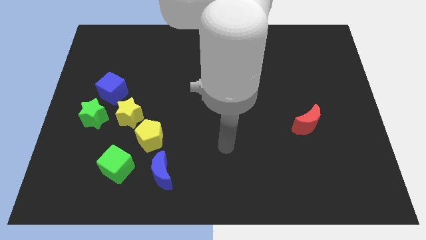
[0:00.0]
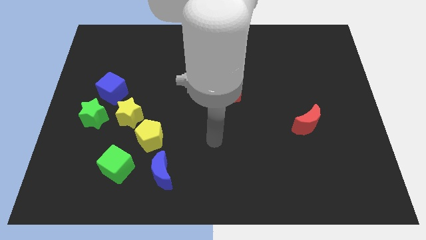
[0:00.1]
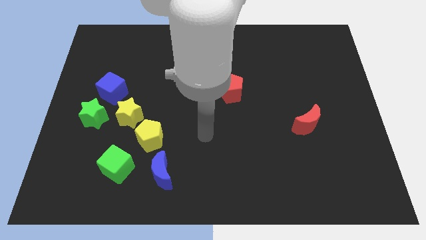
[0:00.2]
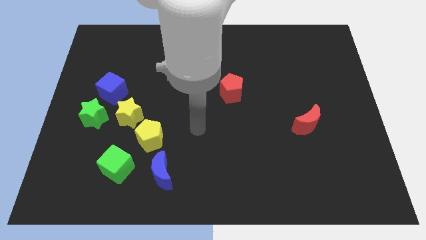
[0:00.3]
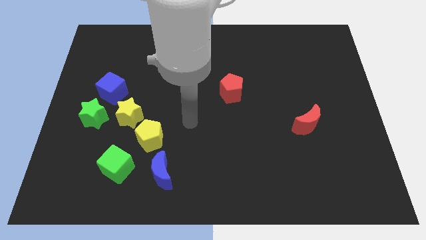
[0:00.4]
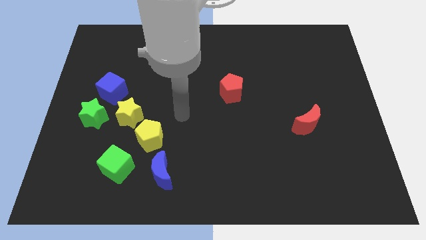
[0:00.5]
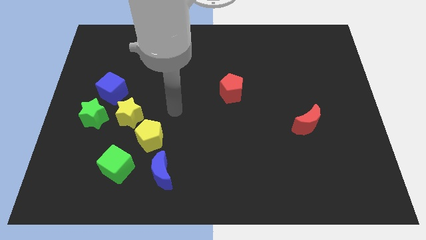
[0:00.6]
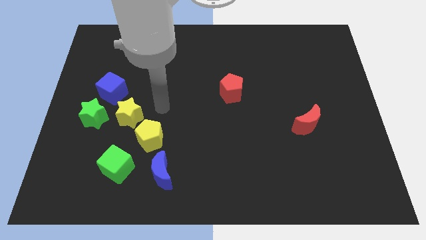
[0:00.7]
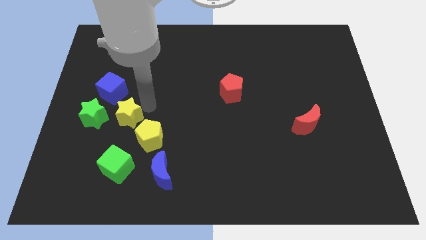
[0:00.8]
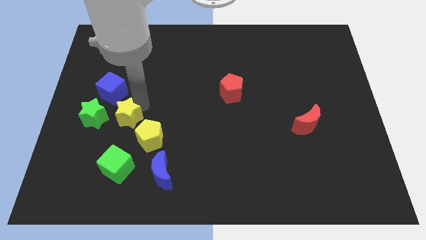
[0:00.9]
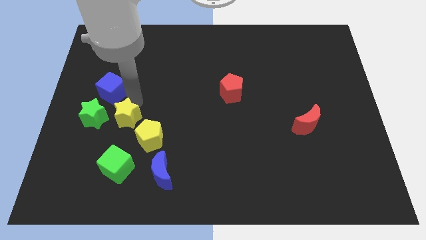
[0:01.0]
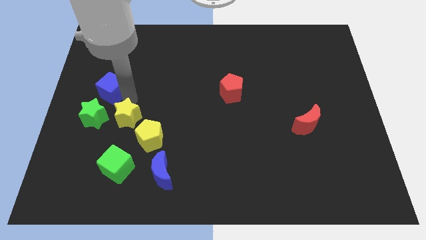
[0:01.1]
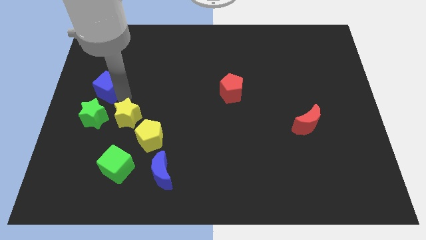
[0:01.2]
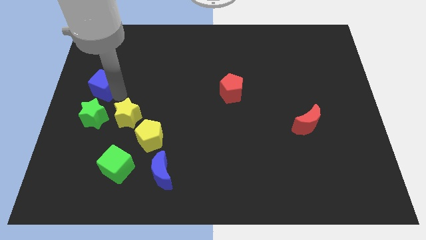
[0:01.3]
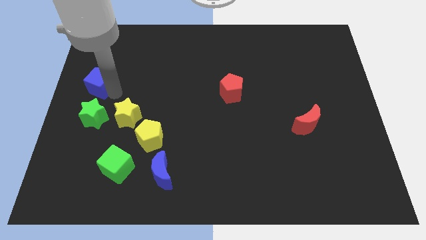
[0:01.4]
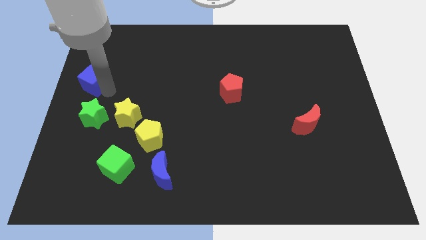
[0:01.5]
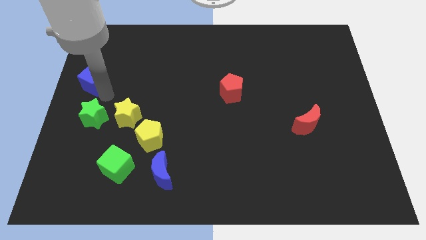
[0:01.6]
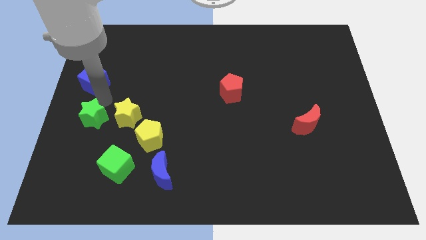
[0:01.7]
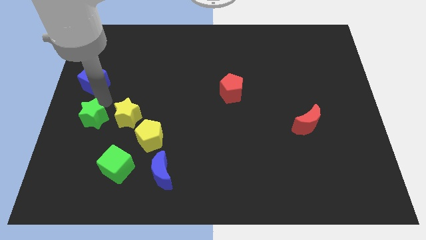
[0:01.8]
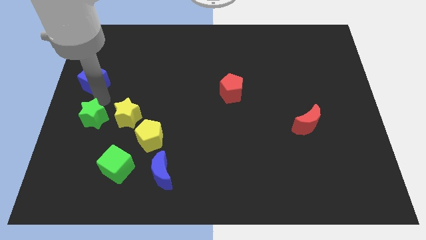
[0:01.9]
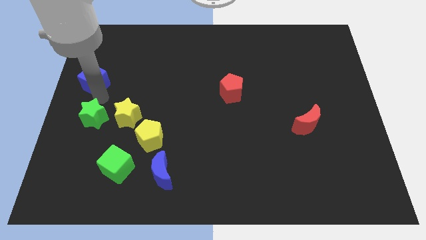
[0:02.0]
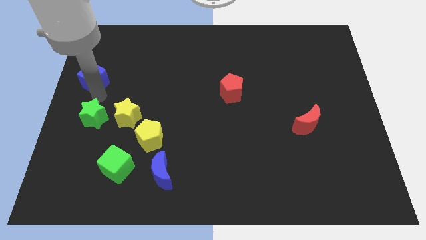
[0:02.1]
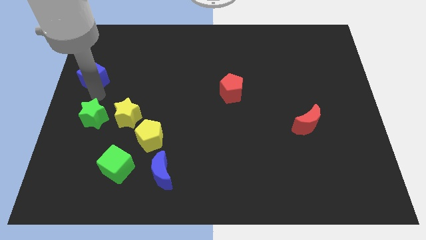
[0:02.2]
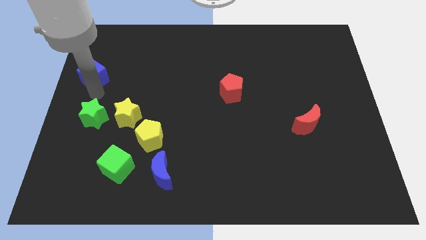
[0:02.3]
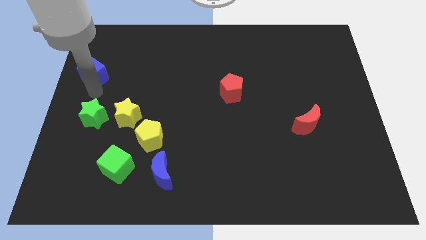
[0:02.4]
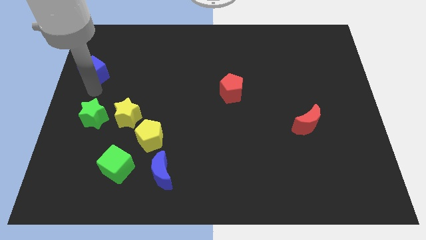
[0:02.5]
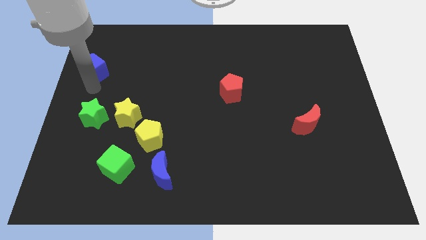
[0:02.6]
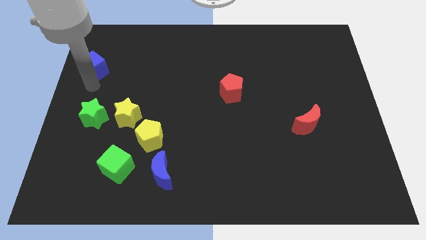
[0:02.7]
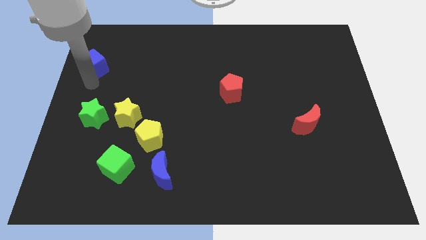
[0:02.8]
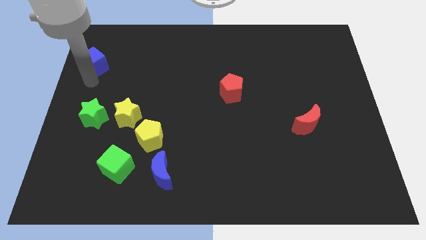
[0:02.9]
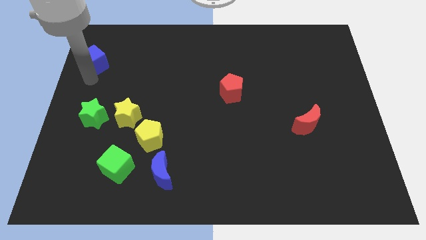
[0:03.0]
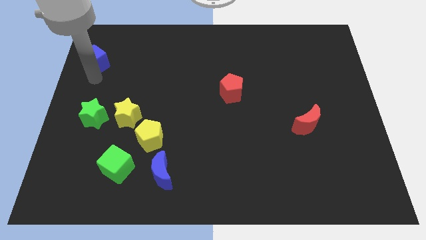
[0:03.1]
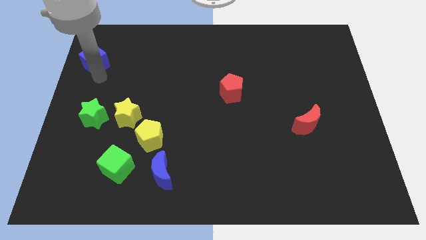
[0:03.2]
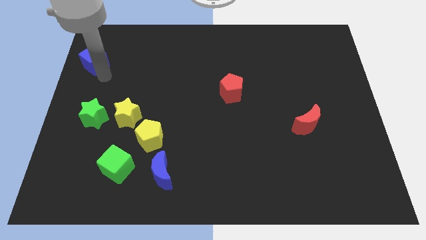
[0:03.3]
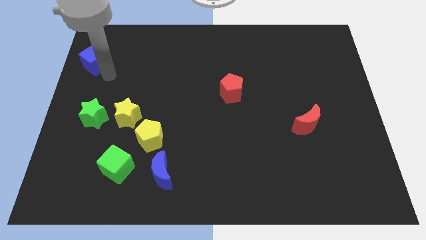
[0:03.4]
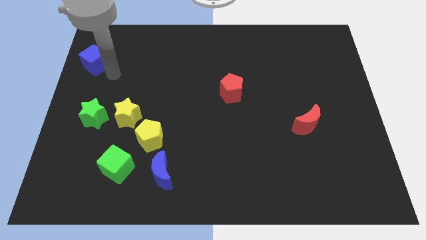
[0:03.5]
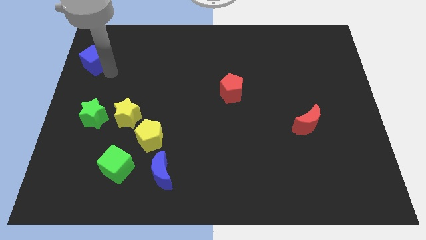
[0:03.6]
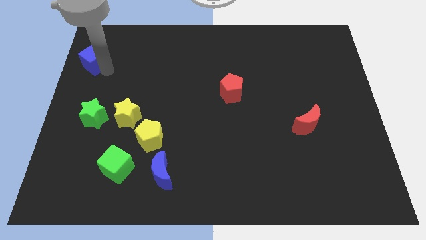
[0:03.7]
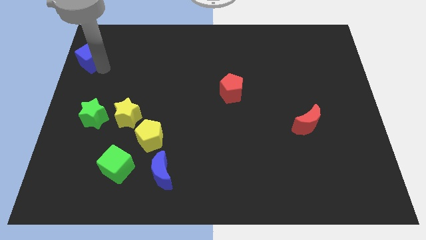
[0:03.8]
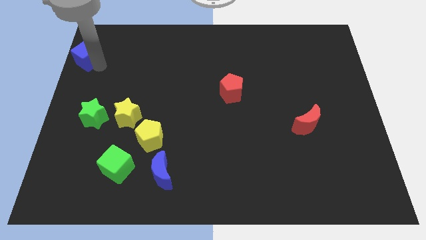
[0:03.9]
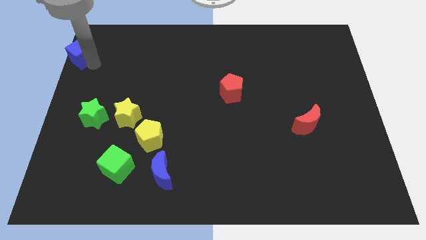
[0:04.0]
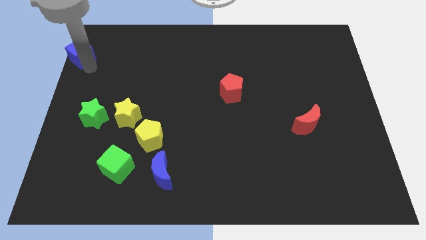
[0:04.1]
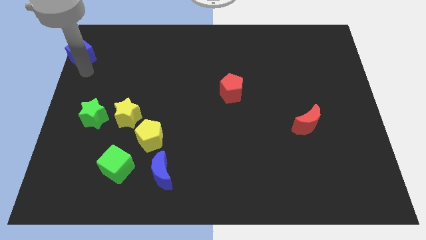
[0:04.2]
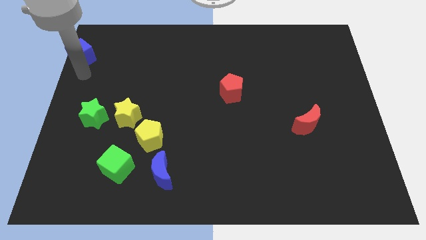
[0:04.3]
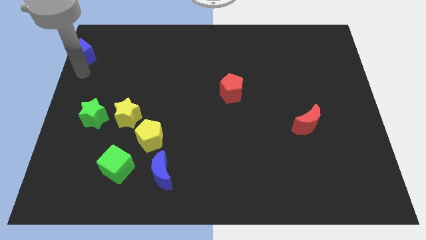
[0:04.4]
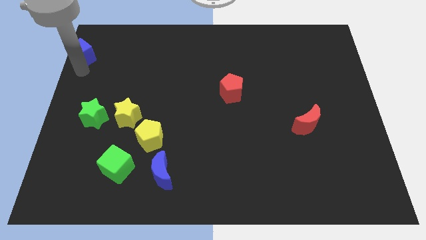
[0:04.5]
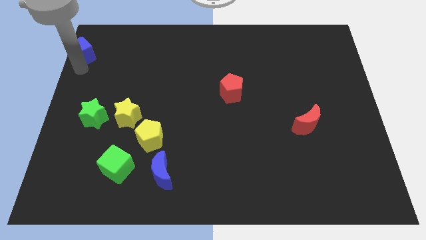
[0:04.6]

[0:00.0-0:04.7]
slide the blue cube to the top left corner

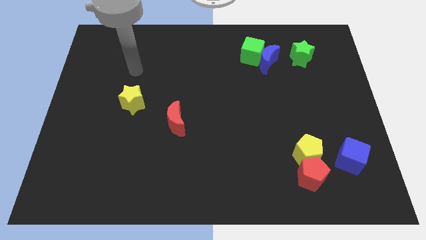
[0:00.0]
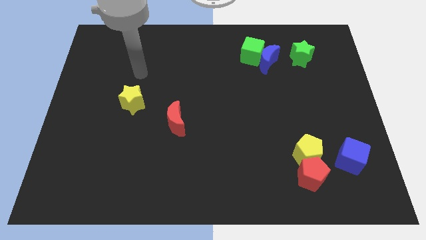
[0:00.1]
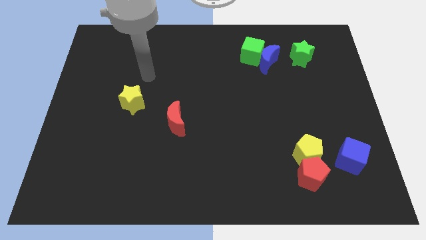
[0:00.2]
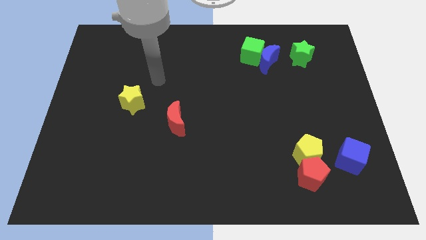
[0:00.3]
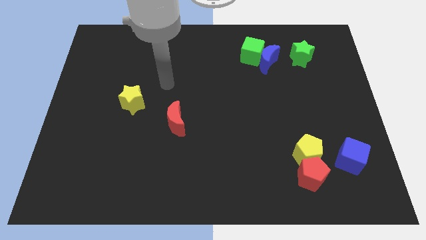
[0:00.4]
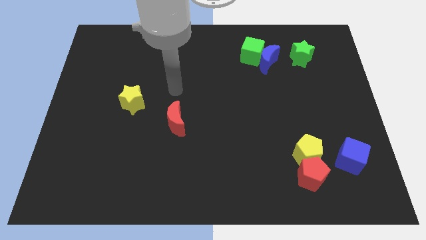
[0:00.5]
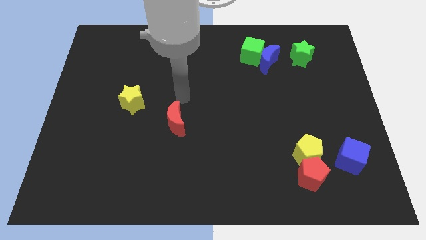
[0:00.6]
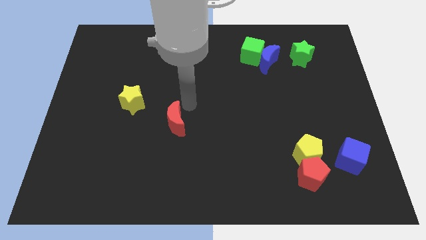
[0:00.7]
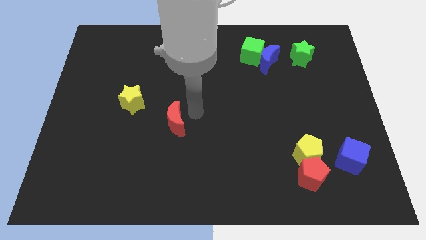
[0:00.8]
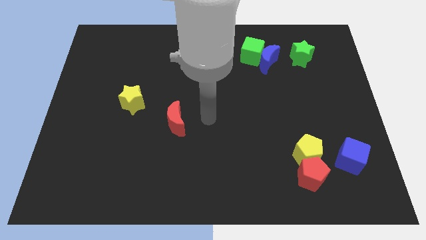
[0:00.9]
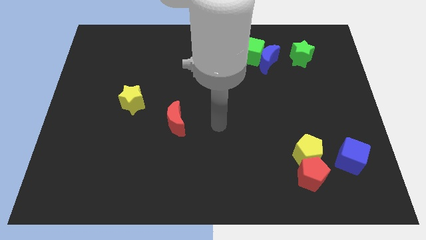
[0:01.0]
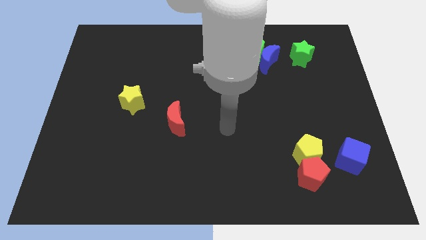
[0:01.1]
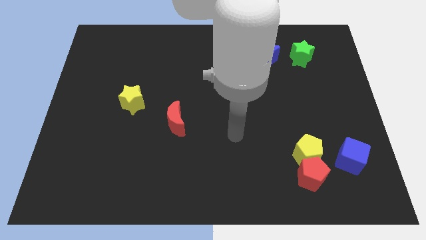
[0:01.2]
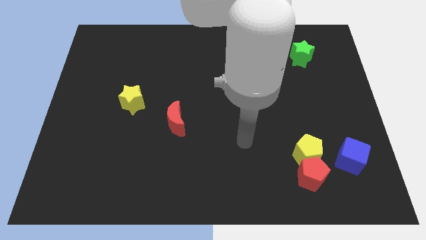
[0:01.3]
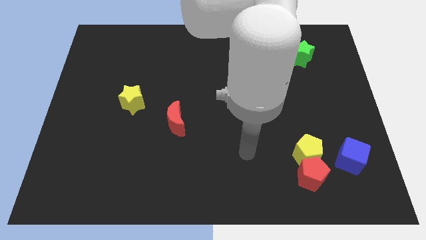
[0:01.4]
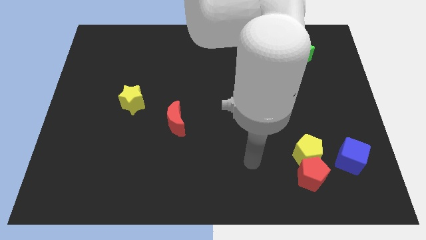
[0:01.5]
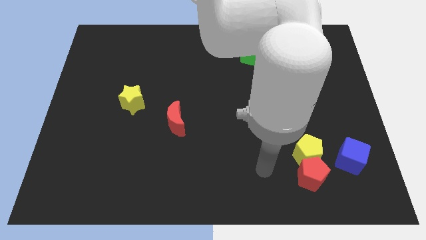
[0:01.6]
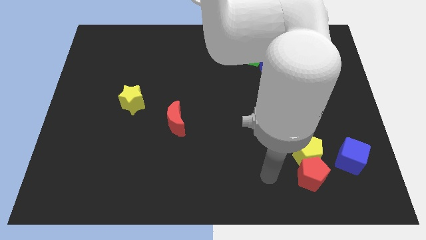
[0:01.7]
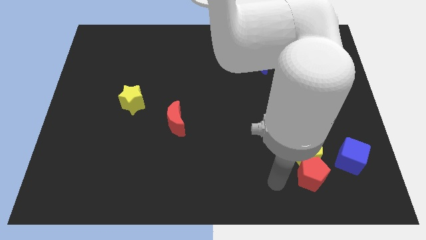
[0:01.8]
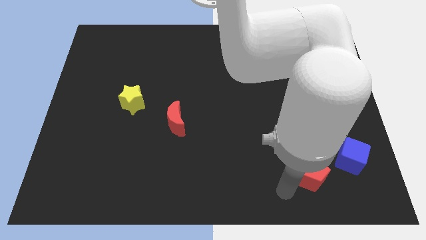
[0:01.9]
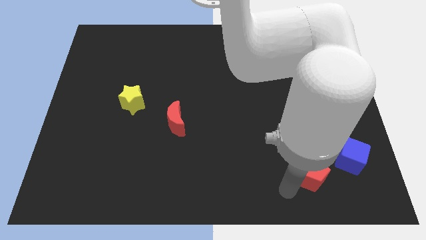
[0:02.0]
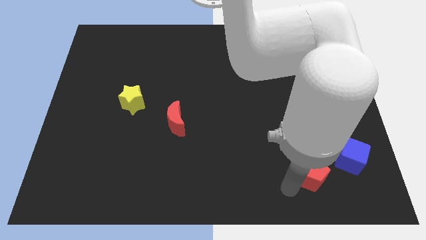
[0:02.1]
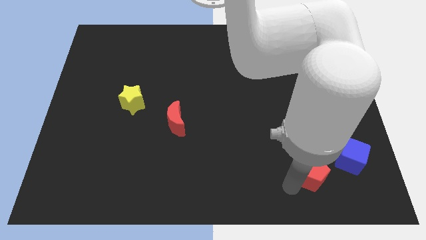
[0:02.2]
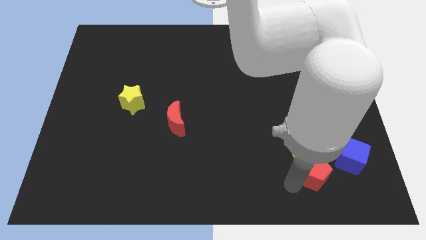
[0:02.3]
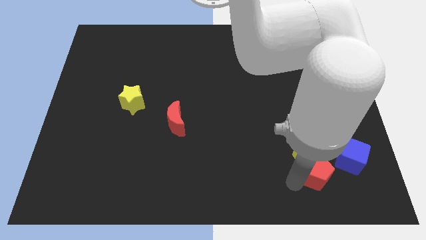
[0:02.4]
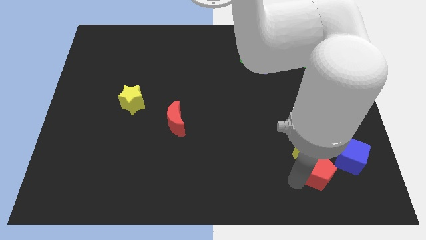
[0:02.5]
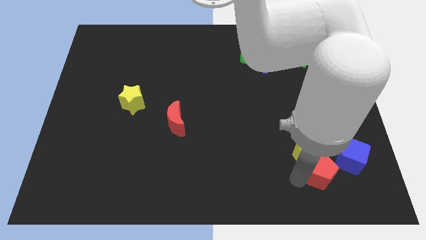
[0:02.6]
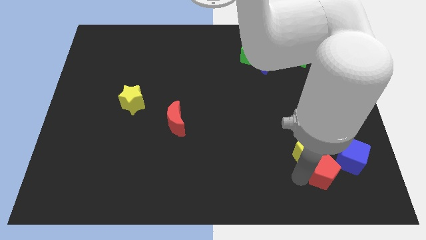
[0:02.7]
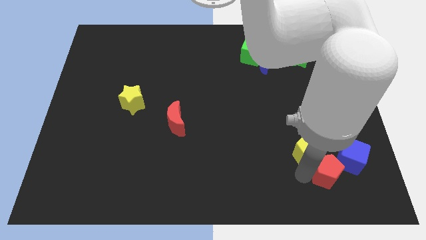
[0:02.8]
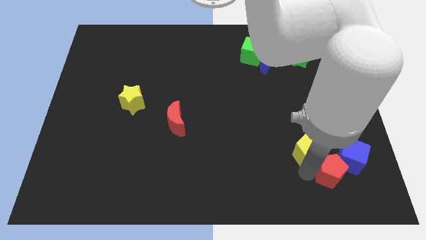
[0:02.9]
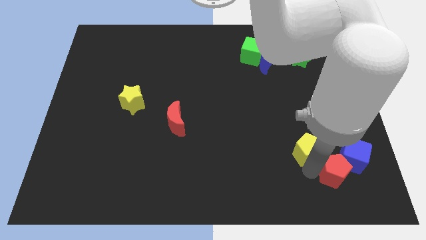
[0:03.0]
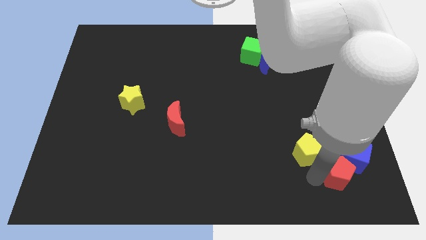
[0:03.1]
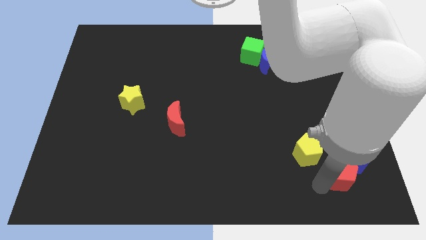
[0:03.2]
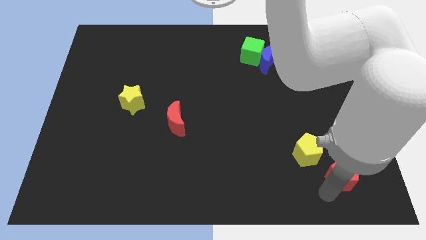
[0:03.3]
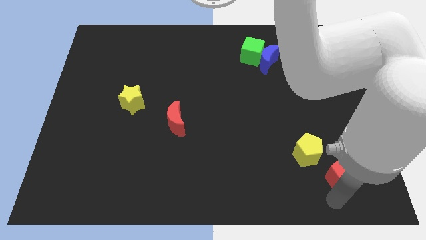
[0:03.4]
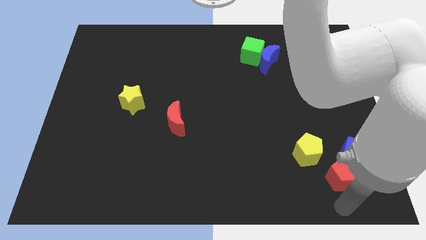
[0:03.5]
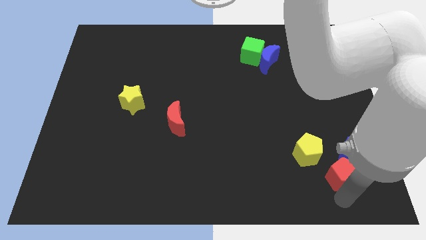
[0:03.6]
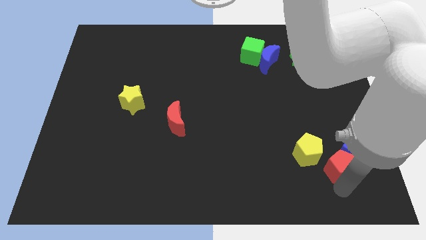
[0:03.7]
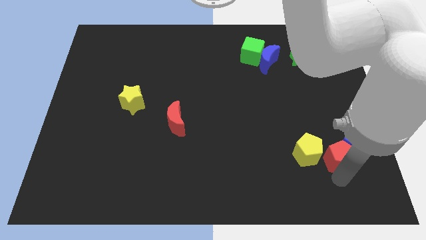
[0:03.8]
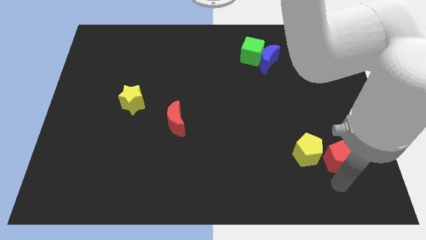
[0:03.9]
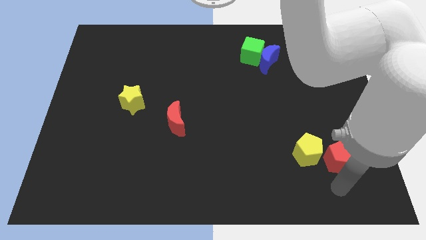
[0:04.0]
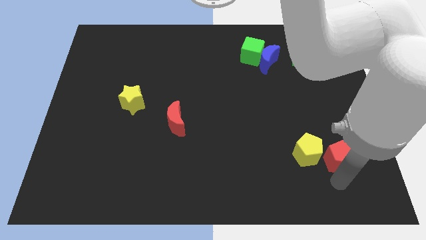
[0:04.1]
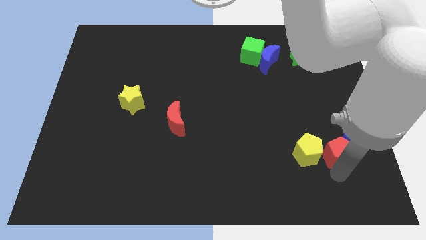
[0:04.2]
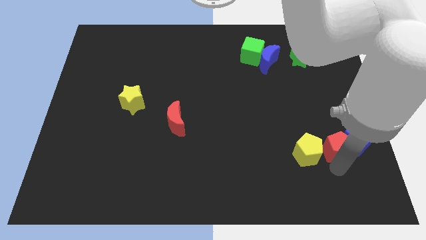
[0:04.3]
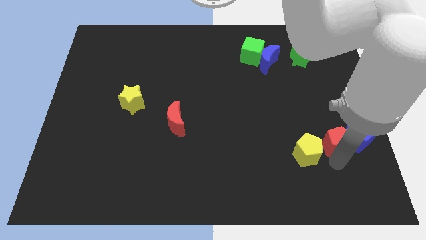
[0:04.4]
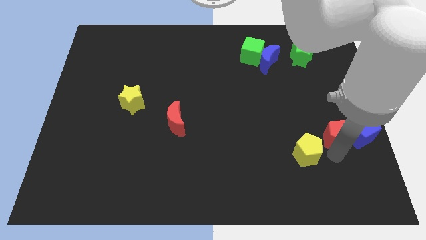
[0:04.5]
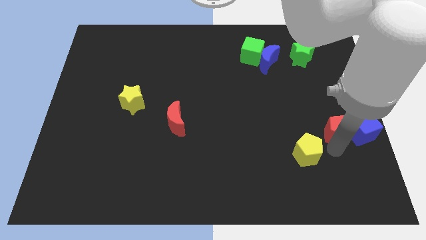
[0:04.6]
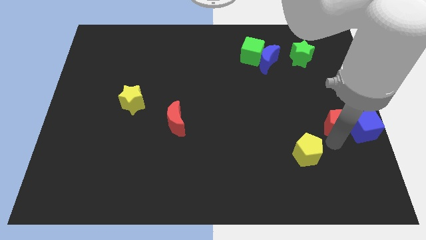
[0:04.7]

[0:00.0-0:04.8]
push the red pentagon to the center right
